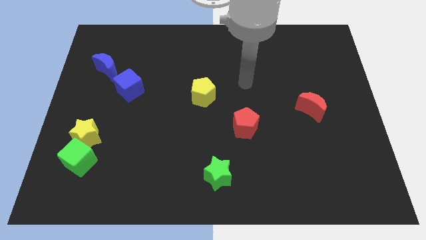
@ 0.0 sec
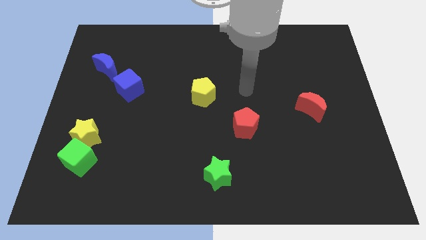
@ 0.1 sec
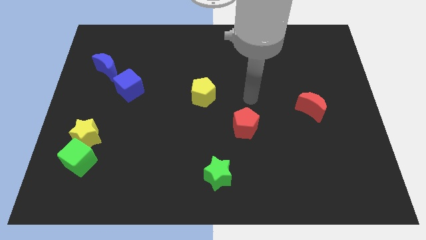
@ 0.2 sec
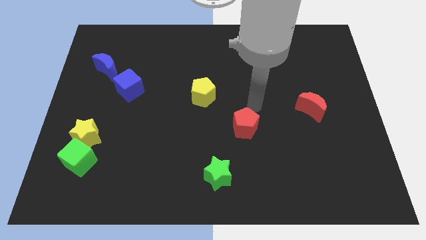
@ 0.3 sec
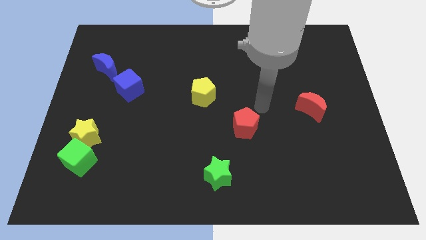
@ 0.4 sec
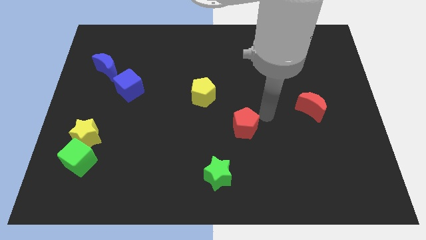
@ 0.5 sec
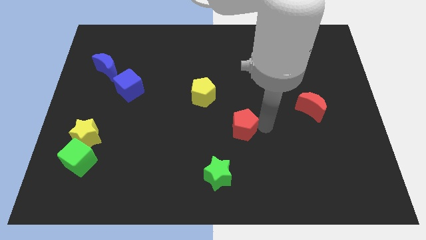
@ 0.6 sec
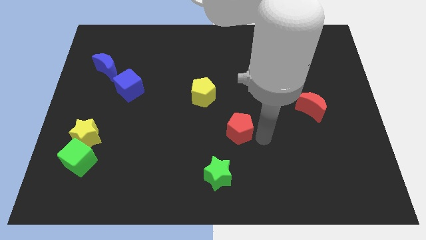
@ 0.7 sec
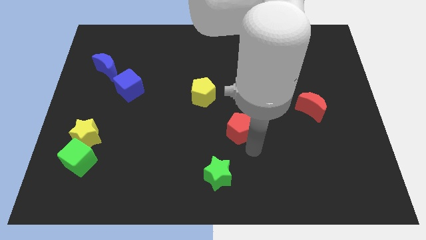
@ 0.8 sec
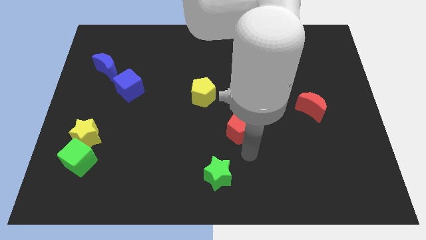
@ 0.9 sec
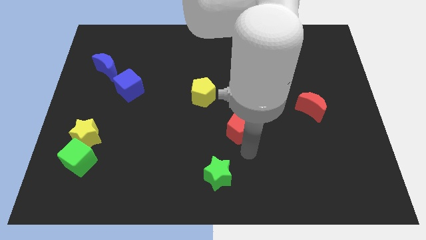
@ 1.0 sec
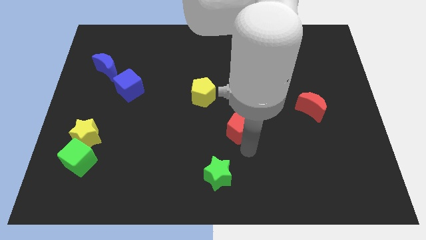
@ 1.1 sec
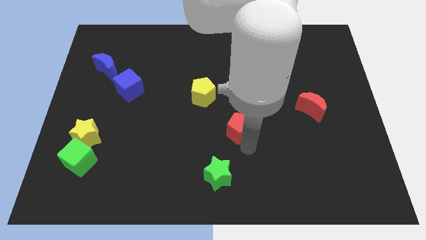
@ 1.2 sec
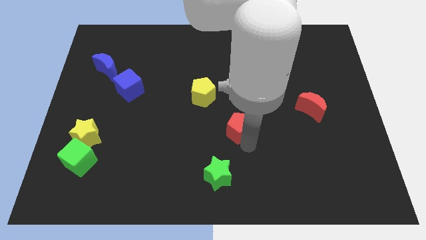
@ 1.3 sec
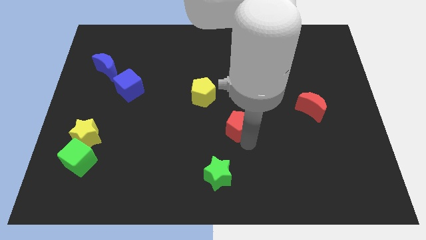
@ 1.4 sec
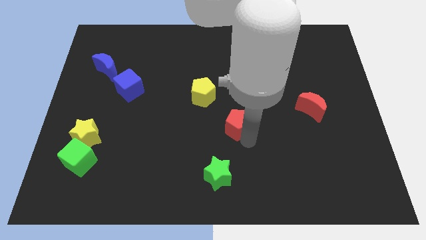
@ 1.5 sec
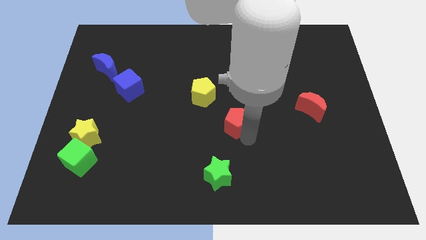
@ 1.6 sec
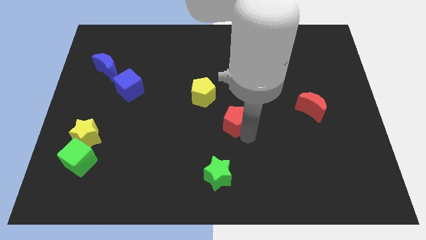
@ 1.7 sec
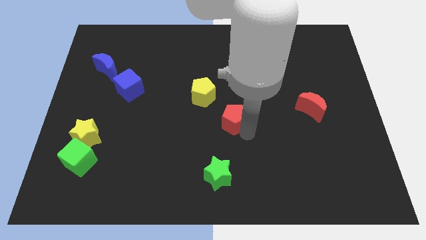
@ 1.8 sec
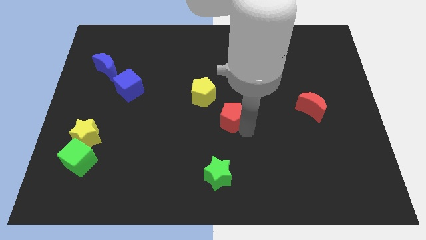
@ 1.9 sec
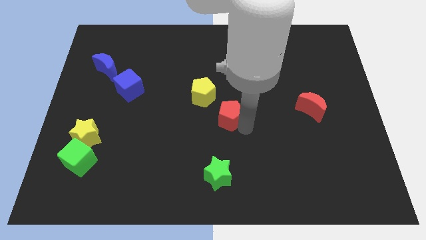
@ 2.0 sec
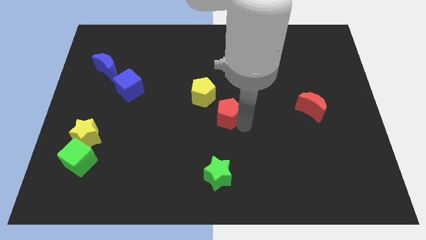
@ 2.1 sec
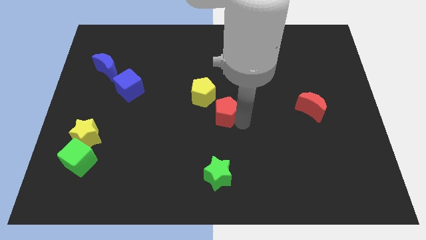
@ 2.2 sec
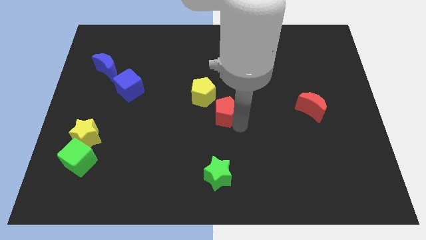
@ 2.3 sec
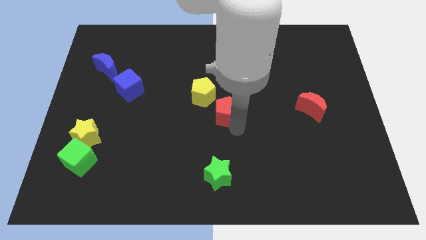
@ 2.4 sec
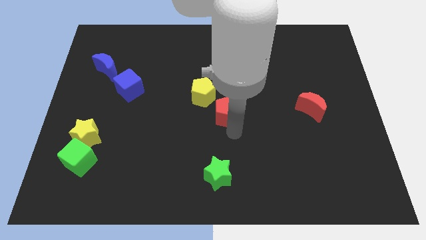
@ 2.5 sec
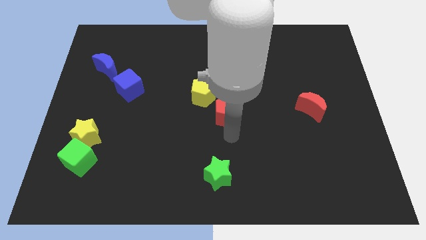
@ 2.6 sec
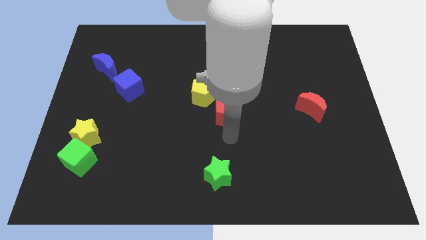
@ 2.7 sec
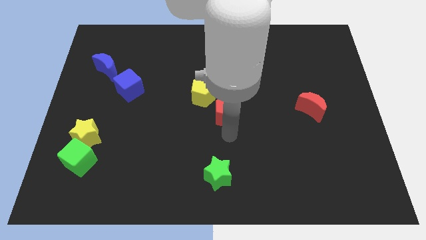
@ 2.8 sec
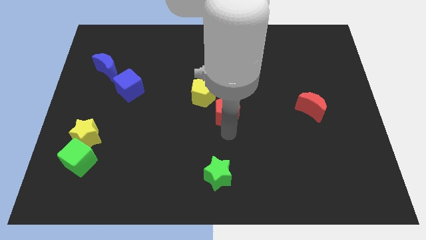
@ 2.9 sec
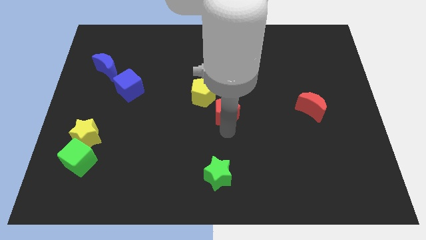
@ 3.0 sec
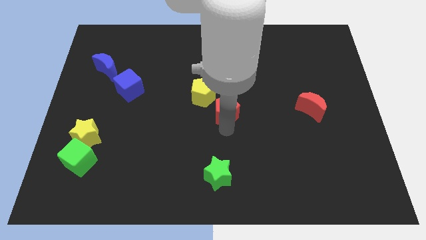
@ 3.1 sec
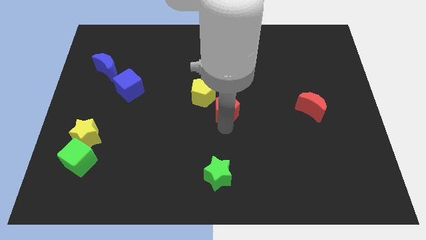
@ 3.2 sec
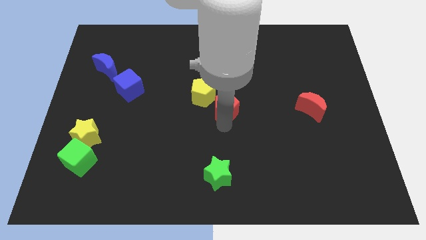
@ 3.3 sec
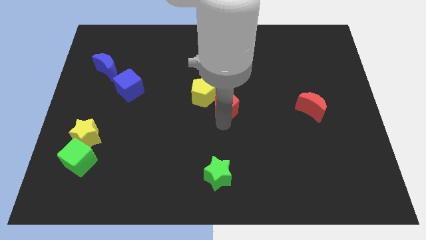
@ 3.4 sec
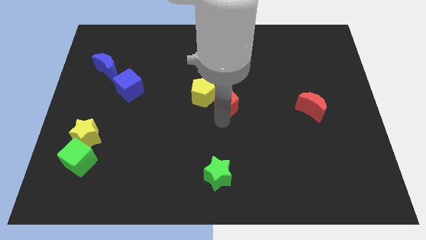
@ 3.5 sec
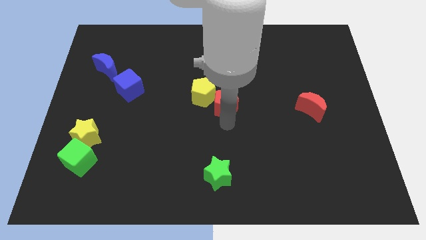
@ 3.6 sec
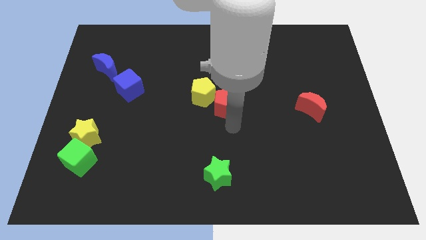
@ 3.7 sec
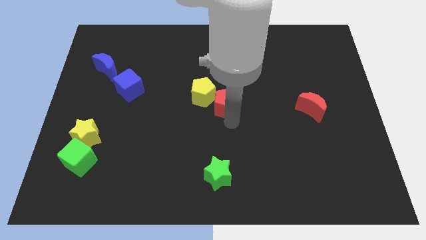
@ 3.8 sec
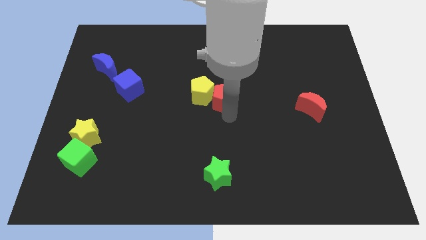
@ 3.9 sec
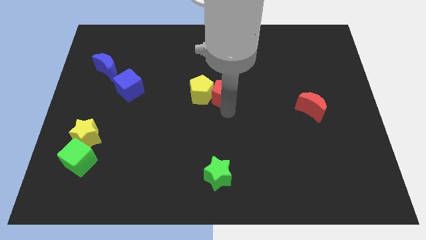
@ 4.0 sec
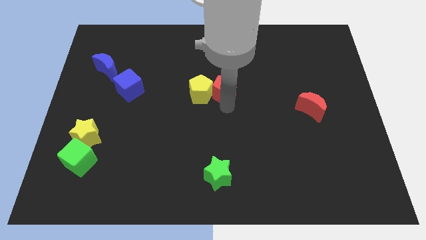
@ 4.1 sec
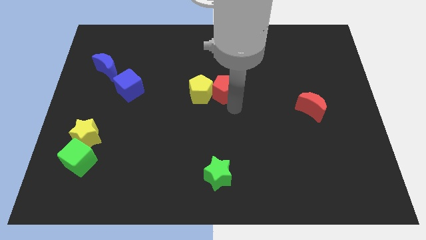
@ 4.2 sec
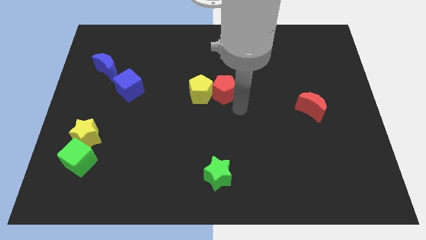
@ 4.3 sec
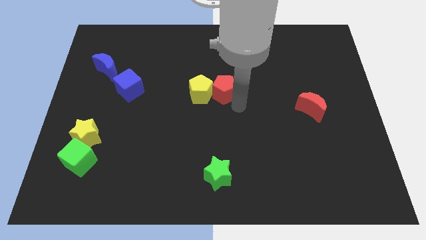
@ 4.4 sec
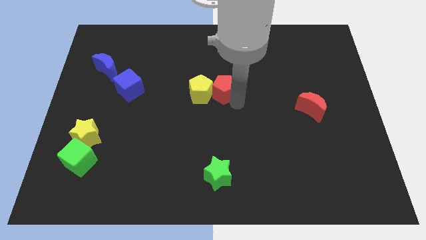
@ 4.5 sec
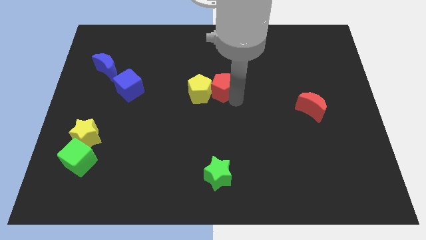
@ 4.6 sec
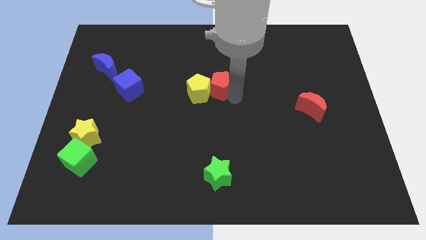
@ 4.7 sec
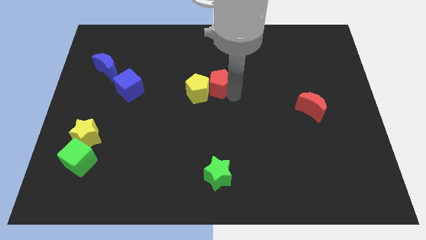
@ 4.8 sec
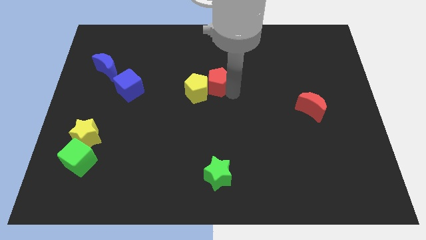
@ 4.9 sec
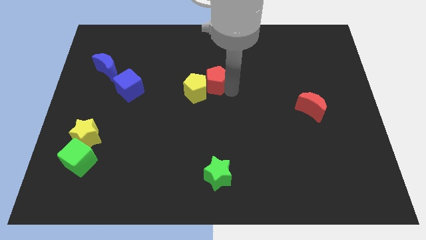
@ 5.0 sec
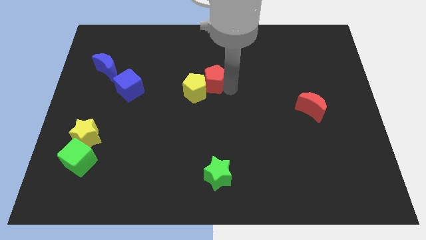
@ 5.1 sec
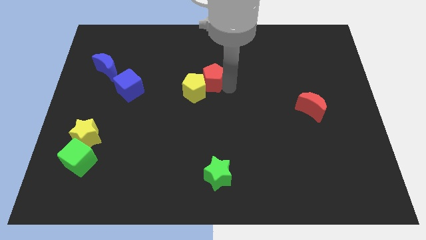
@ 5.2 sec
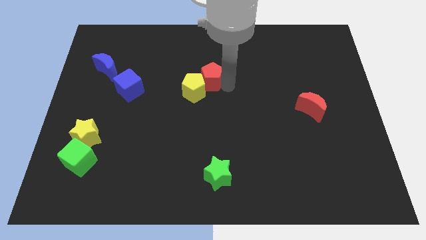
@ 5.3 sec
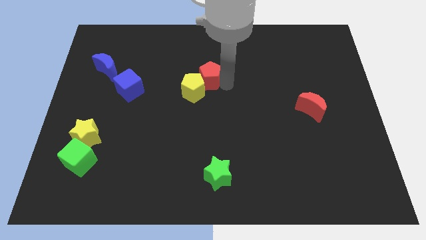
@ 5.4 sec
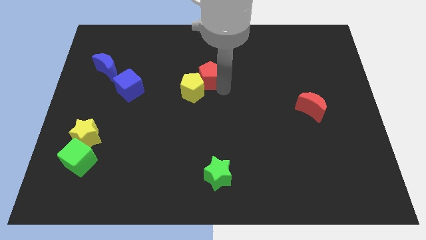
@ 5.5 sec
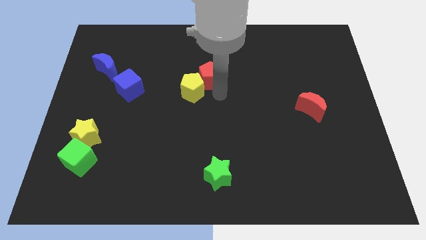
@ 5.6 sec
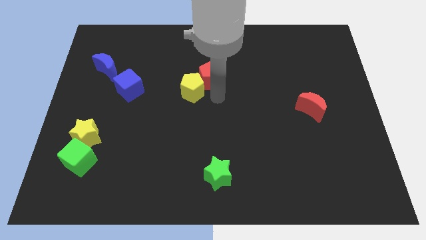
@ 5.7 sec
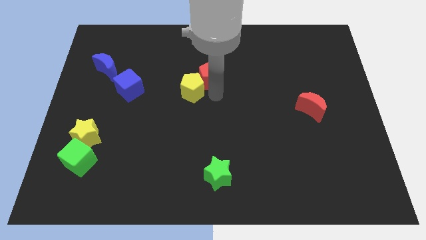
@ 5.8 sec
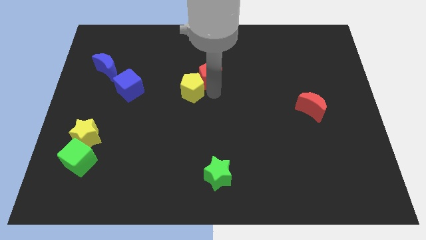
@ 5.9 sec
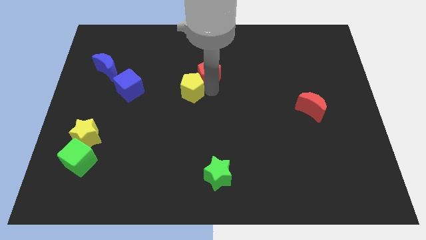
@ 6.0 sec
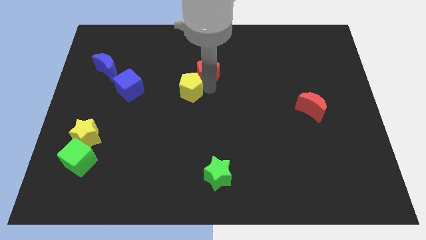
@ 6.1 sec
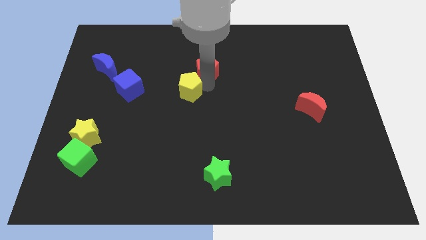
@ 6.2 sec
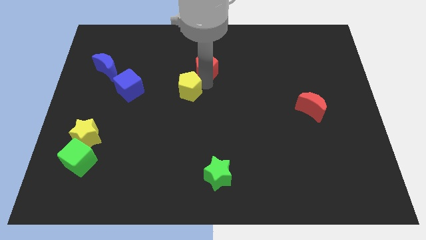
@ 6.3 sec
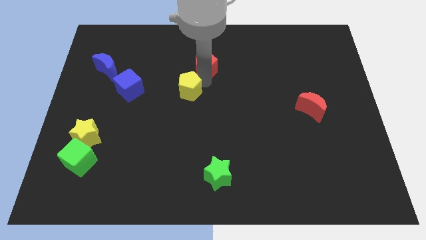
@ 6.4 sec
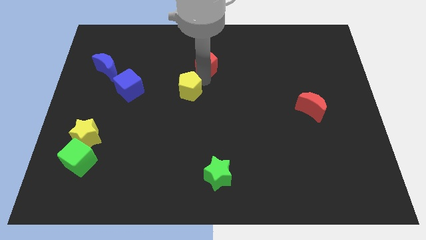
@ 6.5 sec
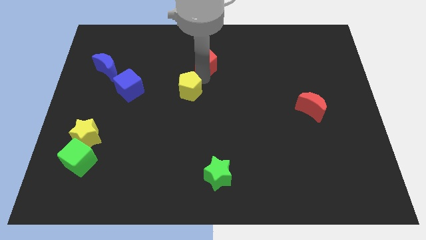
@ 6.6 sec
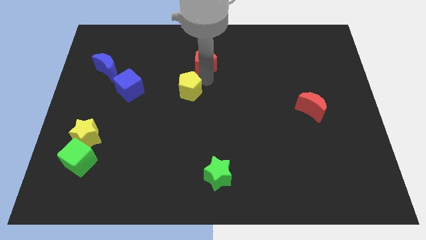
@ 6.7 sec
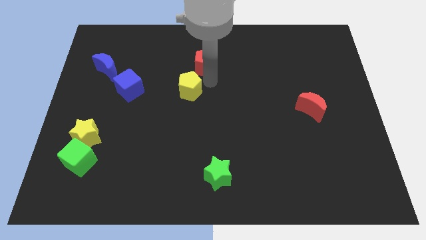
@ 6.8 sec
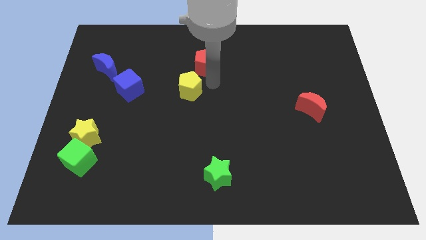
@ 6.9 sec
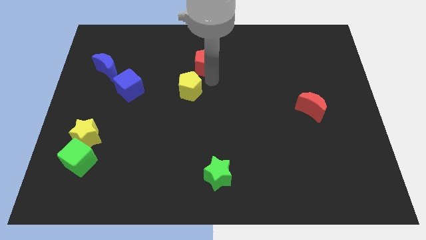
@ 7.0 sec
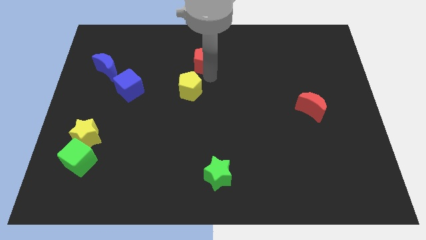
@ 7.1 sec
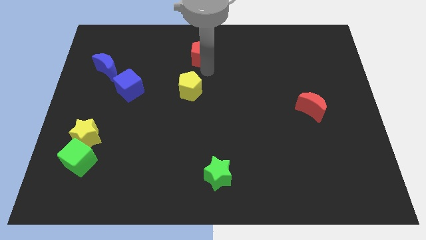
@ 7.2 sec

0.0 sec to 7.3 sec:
move the red pentagon to the top

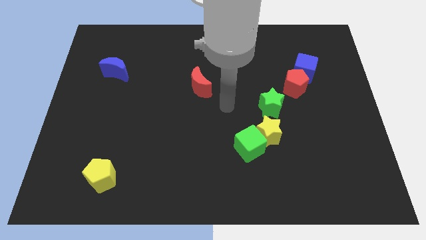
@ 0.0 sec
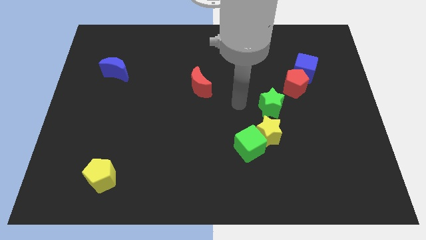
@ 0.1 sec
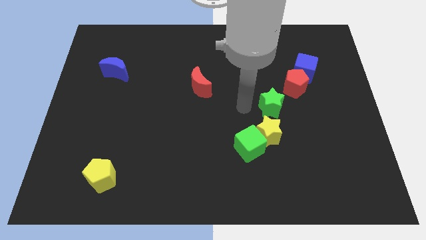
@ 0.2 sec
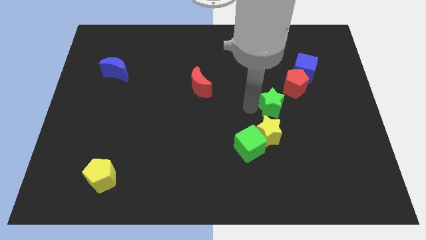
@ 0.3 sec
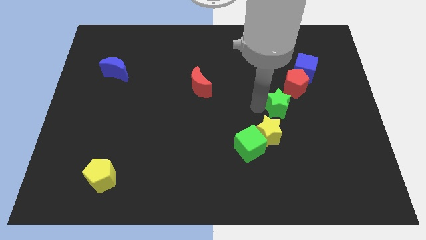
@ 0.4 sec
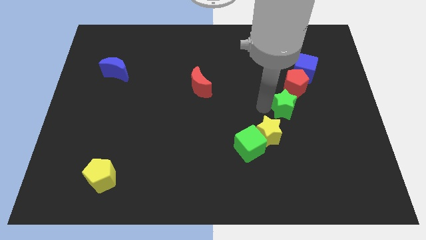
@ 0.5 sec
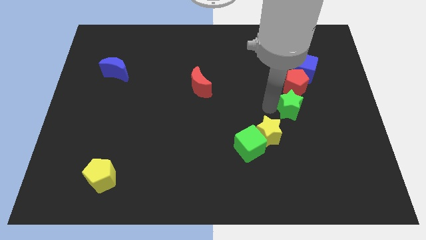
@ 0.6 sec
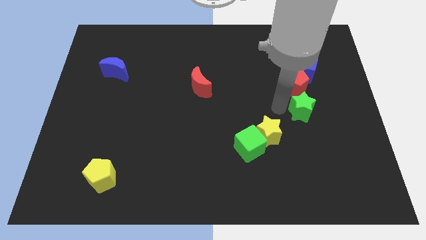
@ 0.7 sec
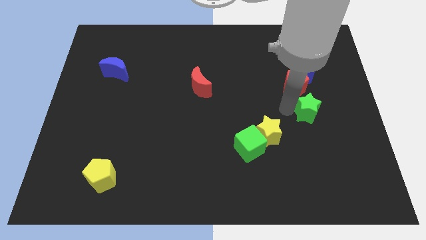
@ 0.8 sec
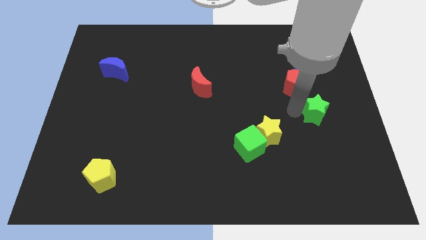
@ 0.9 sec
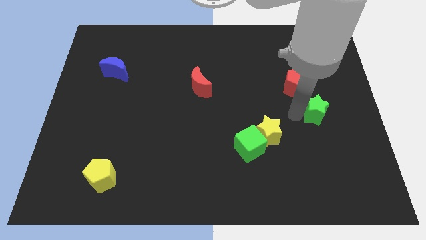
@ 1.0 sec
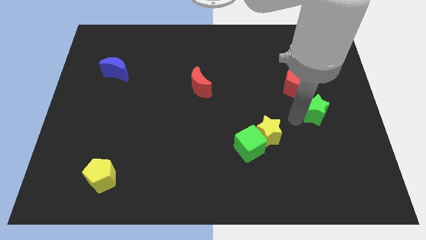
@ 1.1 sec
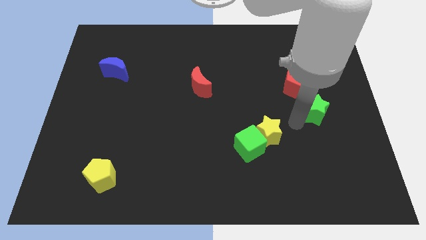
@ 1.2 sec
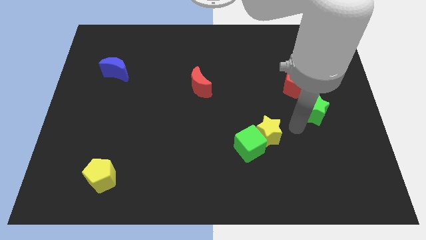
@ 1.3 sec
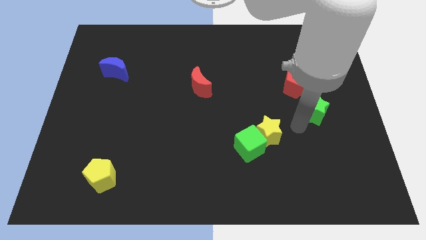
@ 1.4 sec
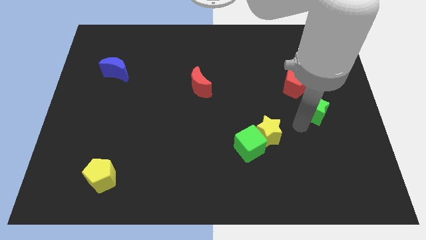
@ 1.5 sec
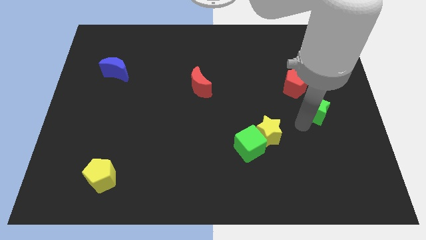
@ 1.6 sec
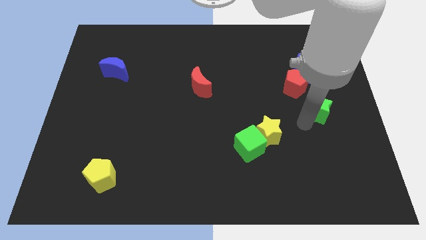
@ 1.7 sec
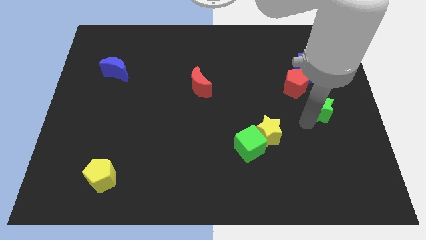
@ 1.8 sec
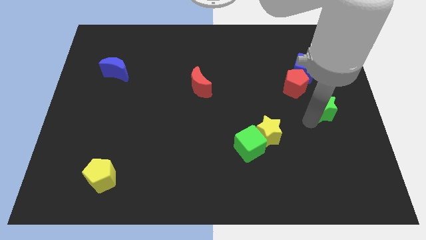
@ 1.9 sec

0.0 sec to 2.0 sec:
put the green star to the right side
